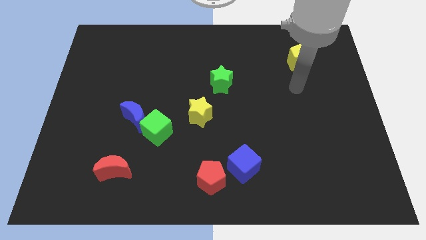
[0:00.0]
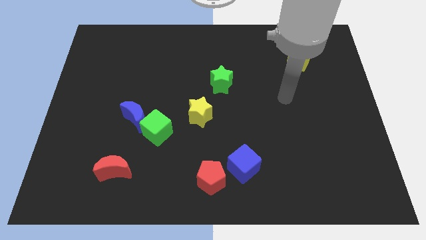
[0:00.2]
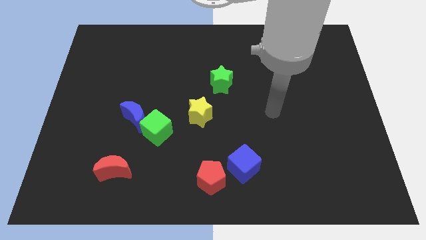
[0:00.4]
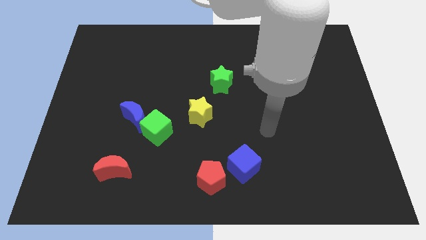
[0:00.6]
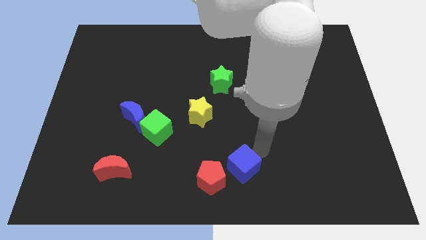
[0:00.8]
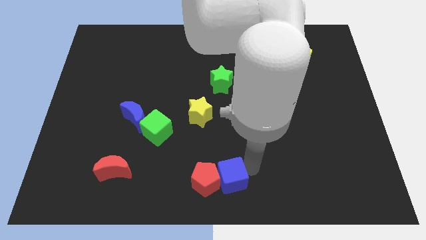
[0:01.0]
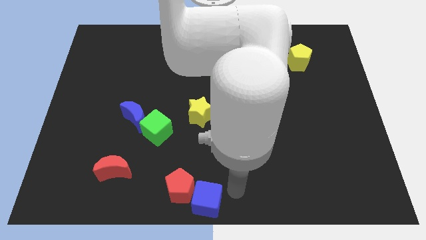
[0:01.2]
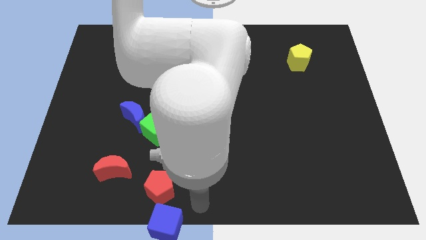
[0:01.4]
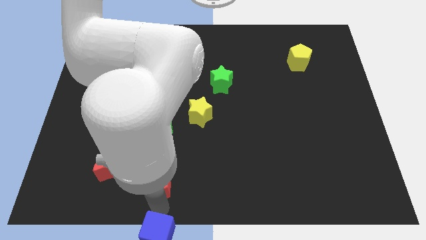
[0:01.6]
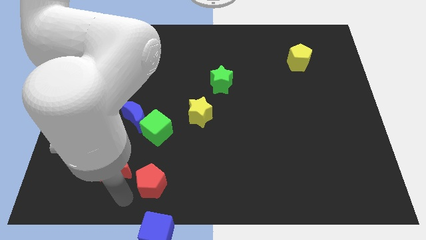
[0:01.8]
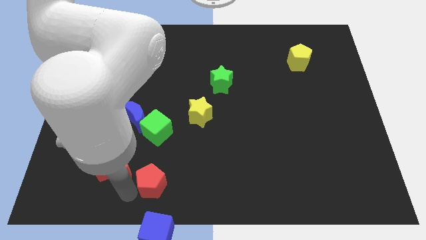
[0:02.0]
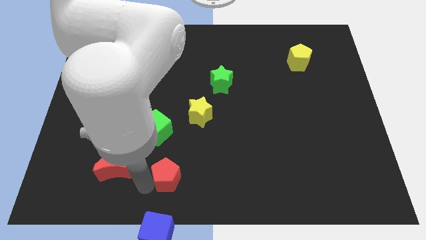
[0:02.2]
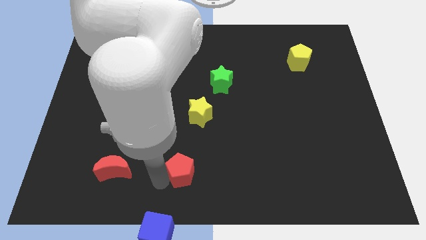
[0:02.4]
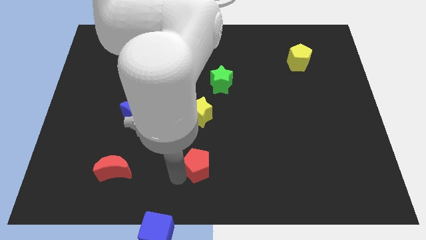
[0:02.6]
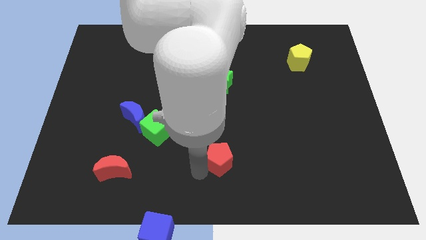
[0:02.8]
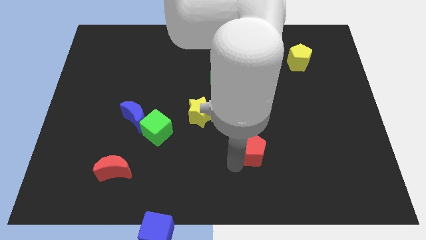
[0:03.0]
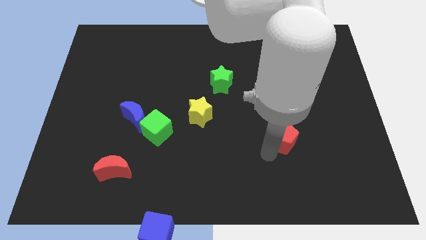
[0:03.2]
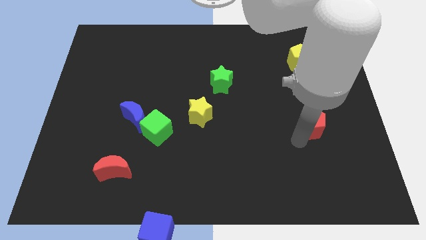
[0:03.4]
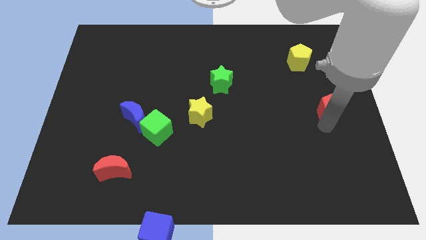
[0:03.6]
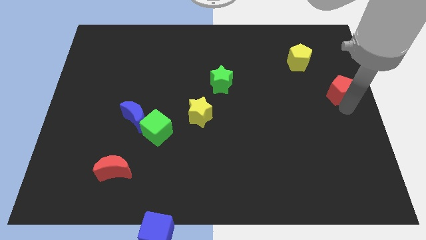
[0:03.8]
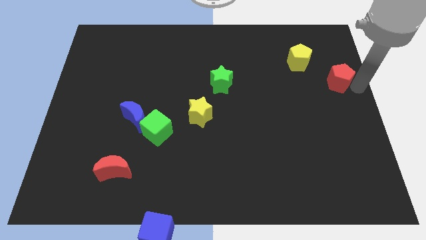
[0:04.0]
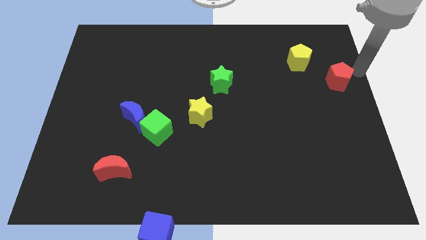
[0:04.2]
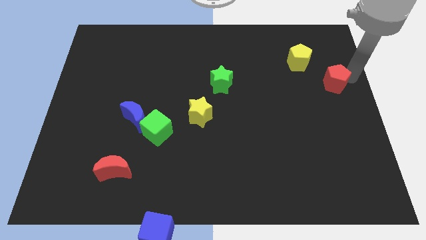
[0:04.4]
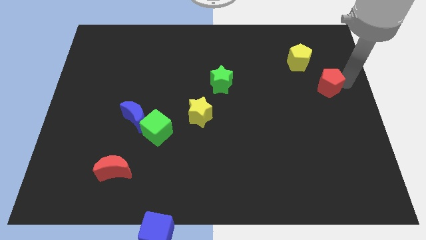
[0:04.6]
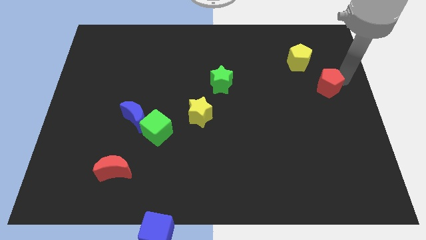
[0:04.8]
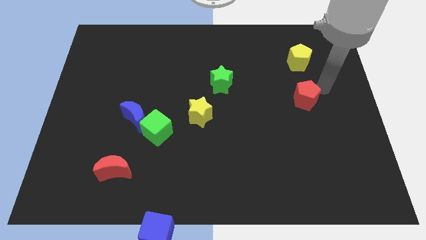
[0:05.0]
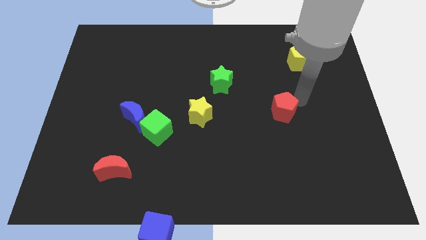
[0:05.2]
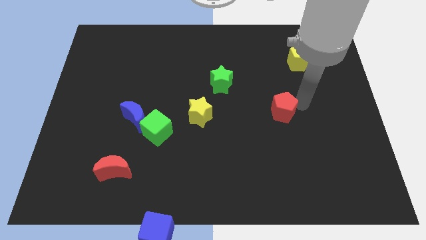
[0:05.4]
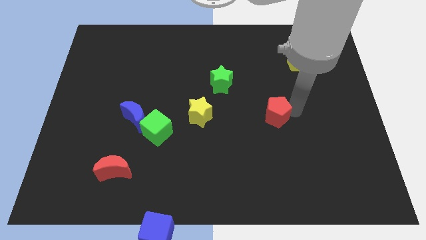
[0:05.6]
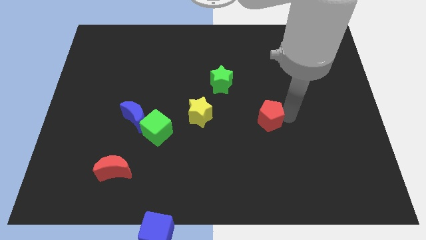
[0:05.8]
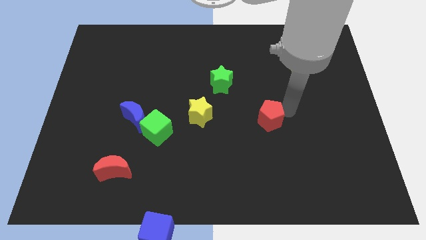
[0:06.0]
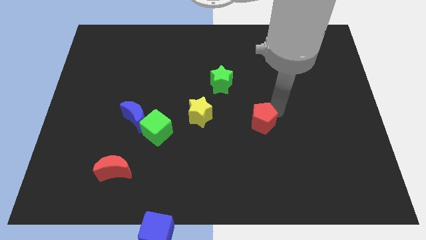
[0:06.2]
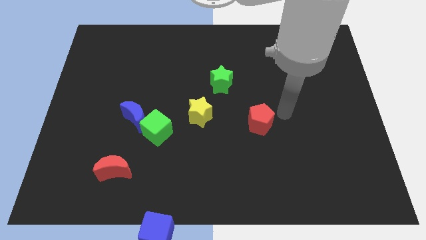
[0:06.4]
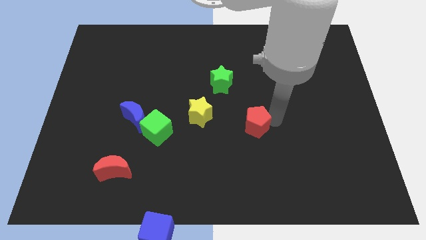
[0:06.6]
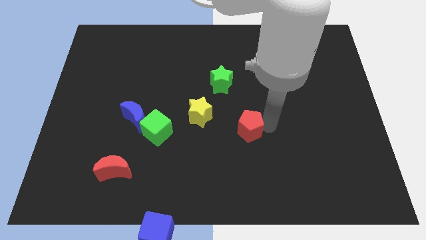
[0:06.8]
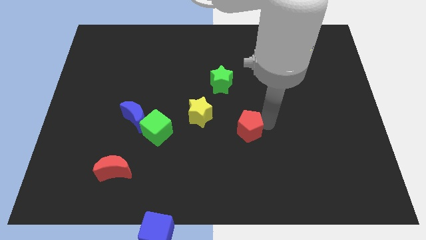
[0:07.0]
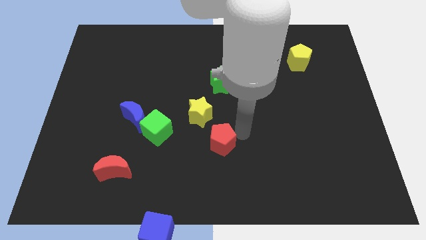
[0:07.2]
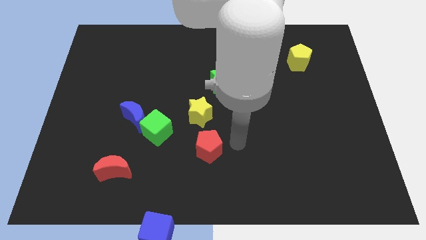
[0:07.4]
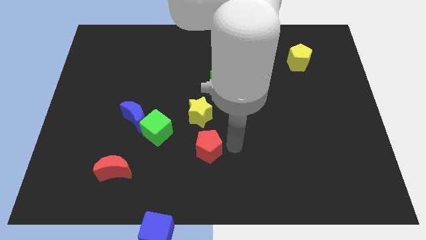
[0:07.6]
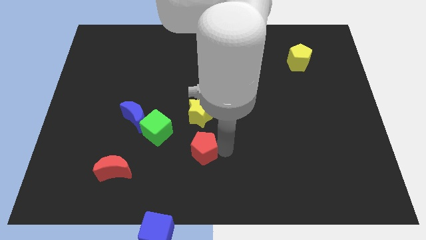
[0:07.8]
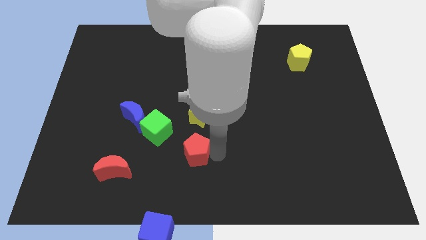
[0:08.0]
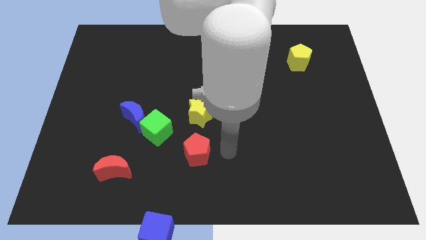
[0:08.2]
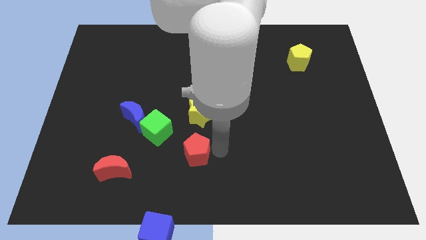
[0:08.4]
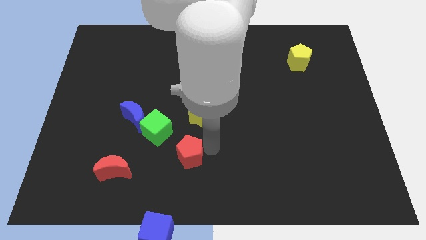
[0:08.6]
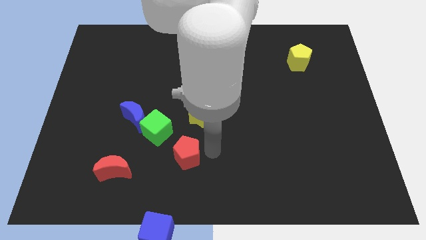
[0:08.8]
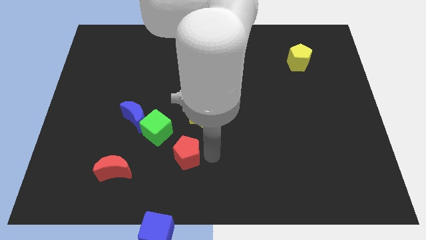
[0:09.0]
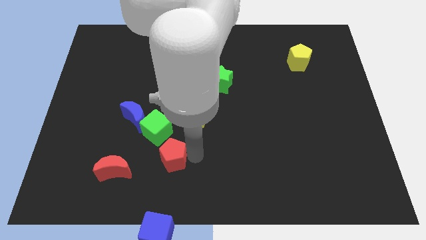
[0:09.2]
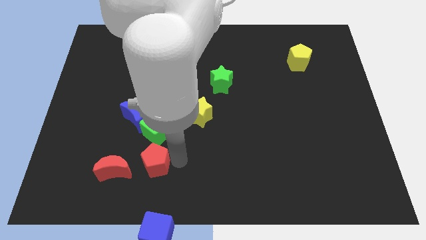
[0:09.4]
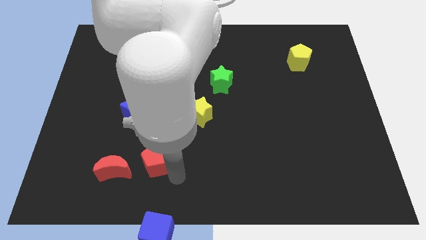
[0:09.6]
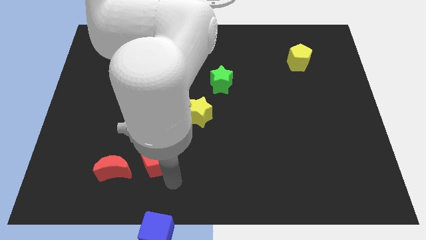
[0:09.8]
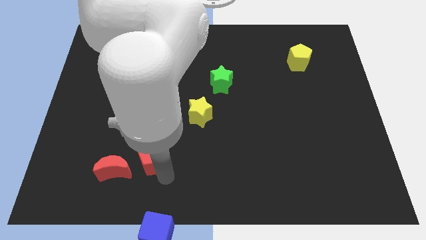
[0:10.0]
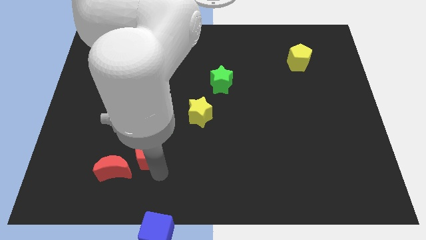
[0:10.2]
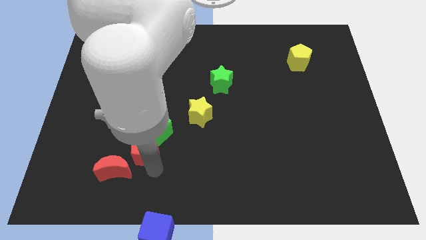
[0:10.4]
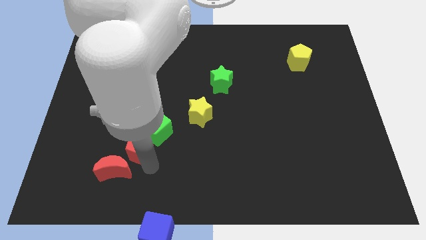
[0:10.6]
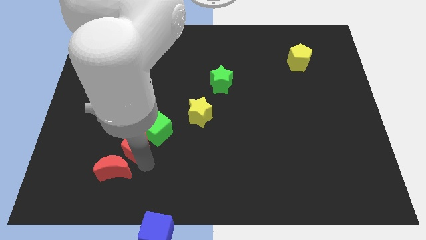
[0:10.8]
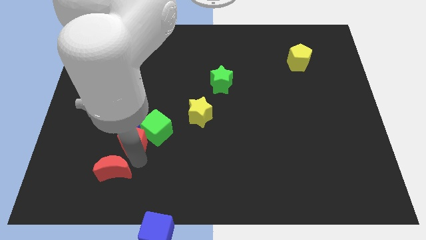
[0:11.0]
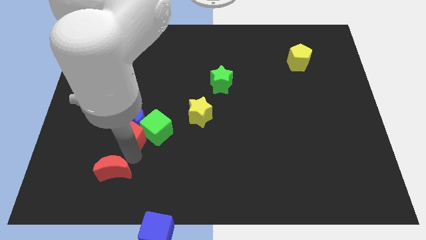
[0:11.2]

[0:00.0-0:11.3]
put the red pentagon to the blue moon
